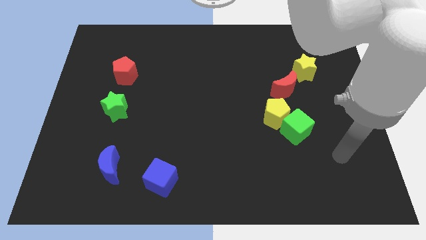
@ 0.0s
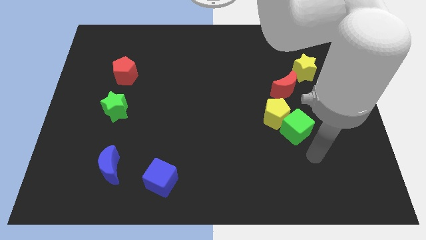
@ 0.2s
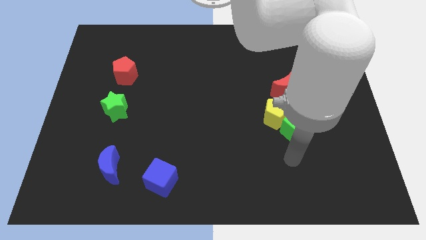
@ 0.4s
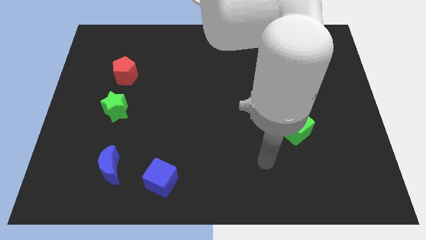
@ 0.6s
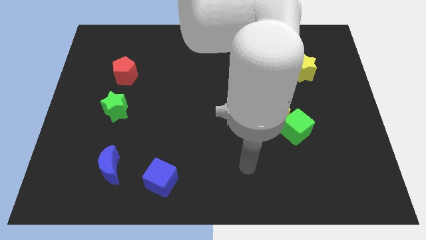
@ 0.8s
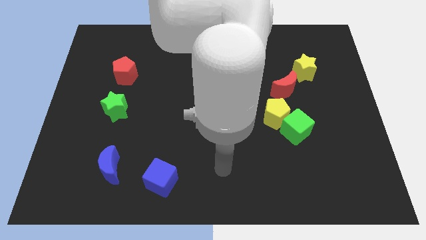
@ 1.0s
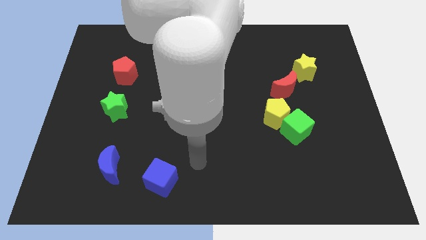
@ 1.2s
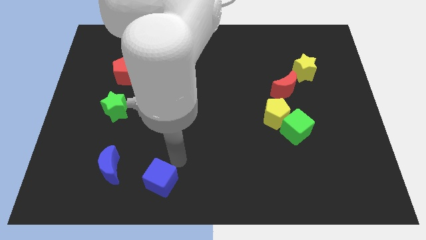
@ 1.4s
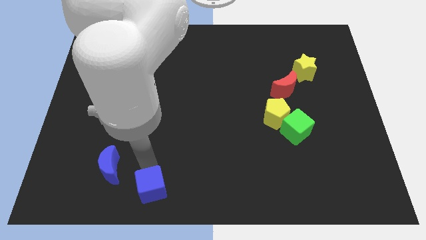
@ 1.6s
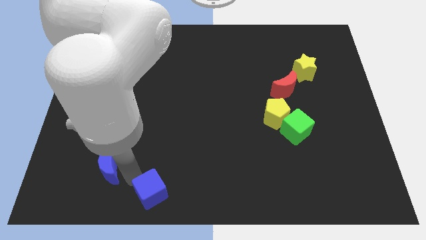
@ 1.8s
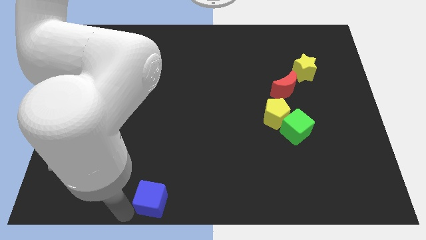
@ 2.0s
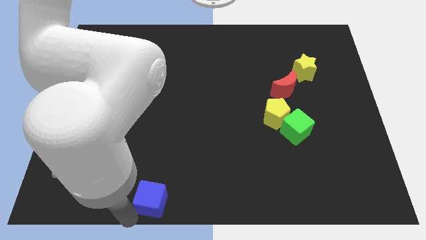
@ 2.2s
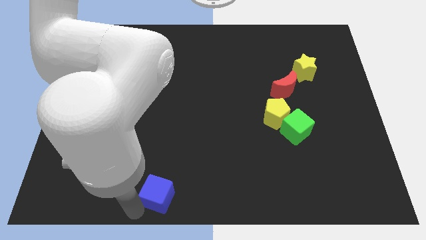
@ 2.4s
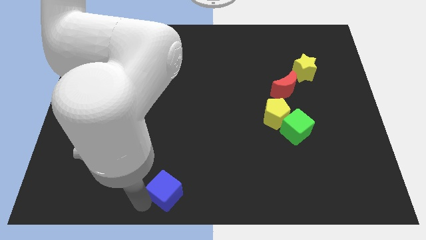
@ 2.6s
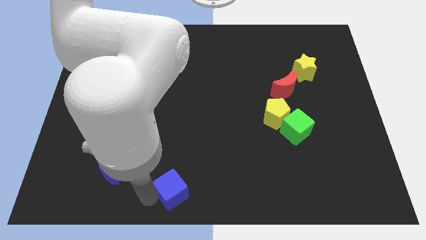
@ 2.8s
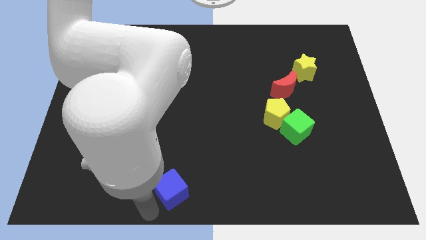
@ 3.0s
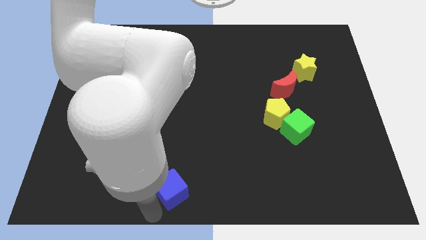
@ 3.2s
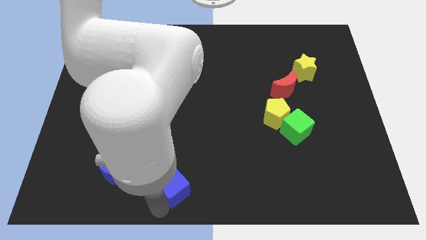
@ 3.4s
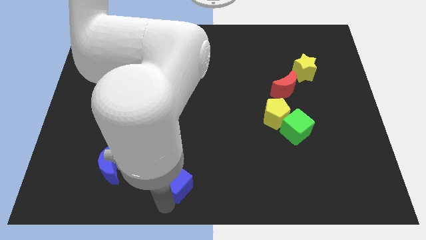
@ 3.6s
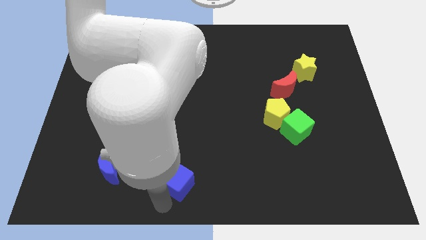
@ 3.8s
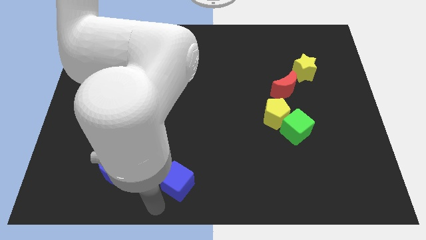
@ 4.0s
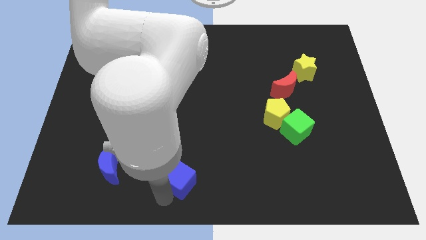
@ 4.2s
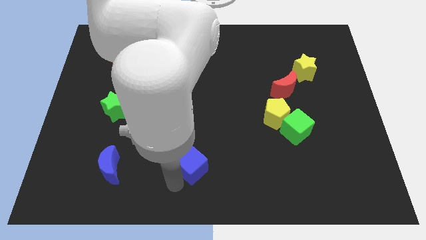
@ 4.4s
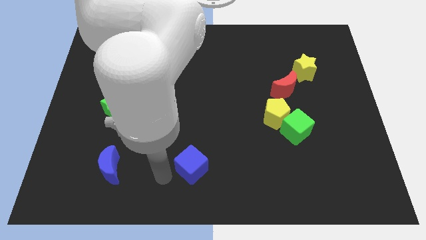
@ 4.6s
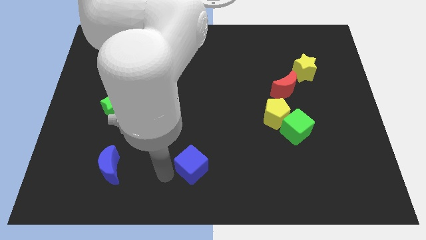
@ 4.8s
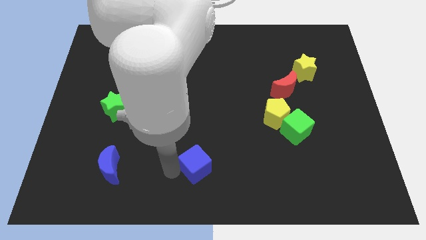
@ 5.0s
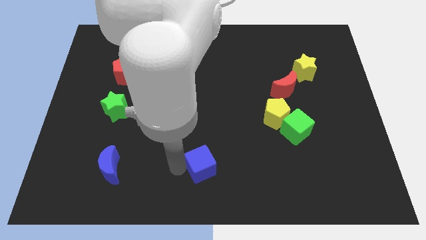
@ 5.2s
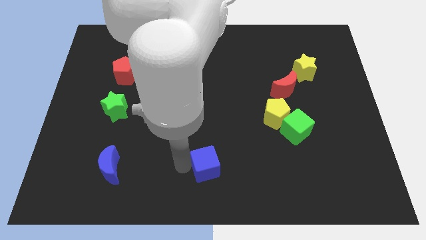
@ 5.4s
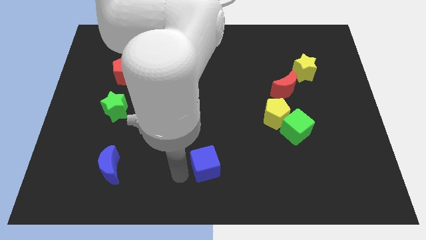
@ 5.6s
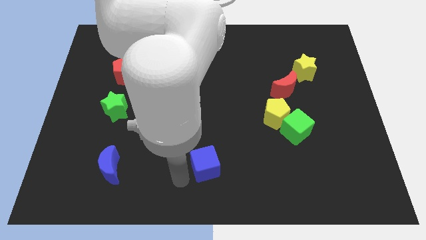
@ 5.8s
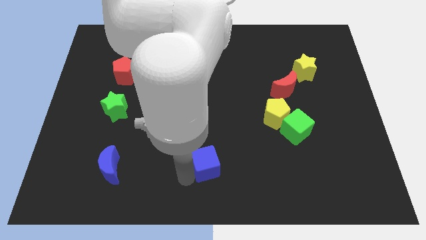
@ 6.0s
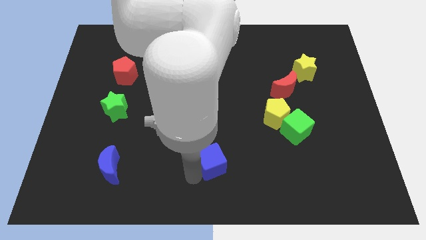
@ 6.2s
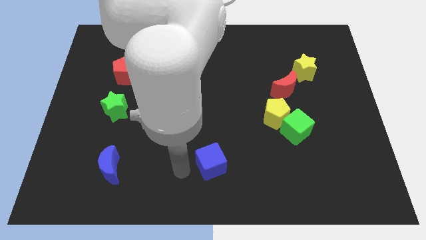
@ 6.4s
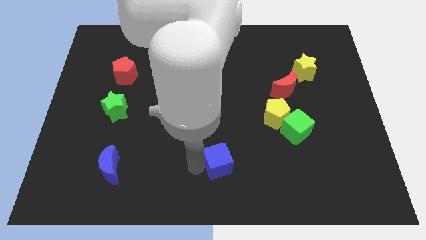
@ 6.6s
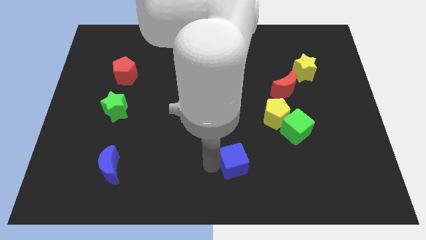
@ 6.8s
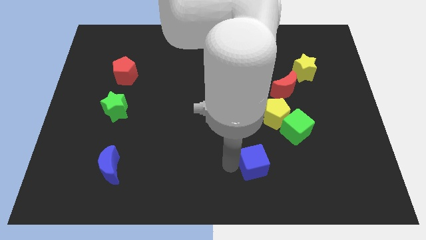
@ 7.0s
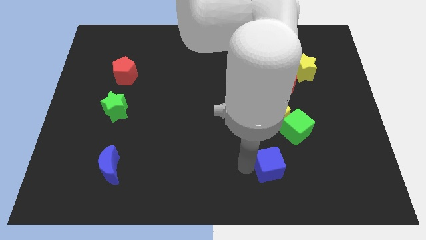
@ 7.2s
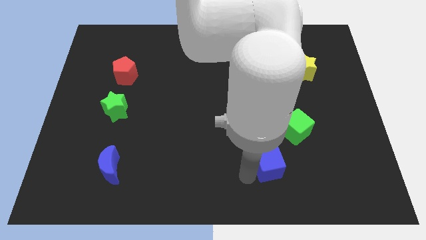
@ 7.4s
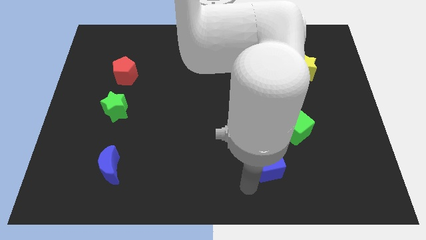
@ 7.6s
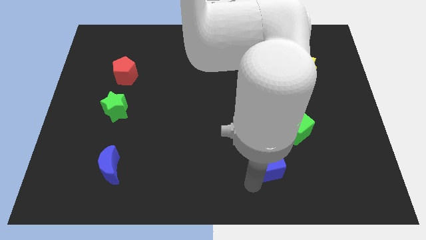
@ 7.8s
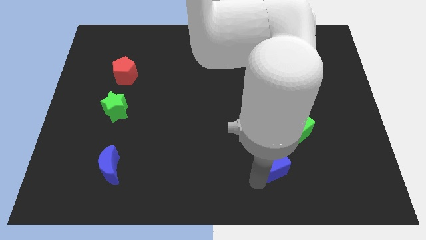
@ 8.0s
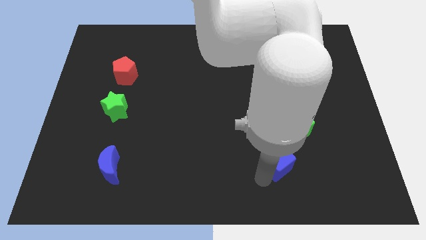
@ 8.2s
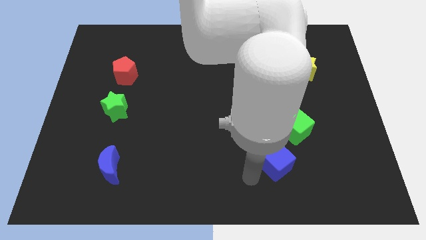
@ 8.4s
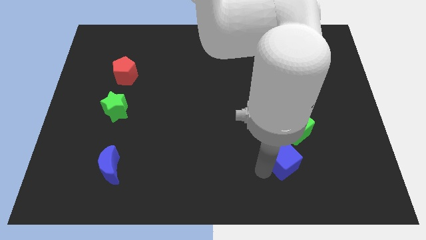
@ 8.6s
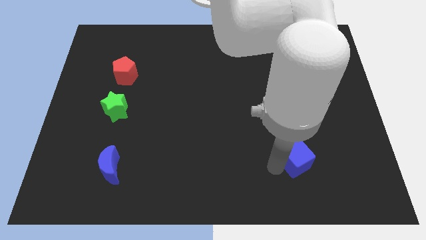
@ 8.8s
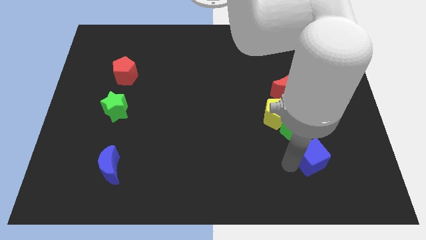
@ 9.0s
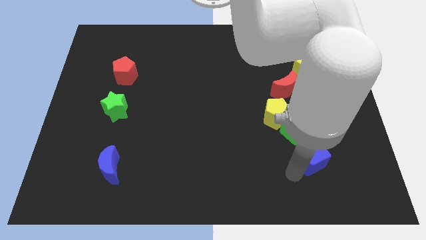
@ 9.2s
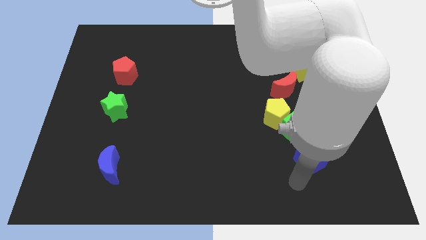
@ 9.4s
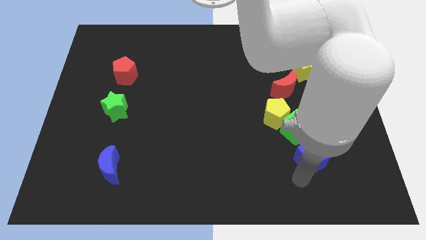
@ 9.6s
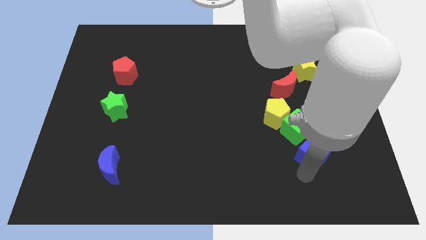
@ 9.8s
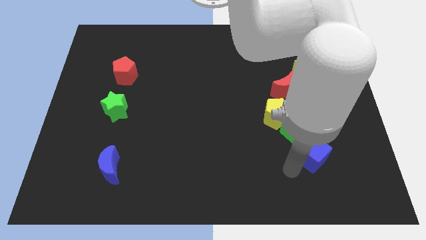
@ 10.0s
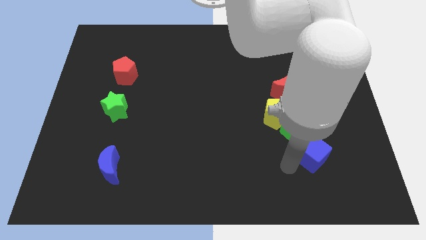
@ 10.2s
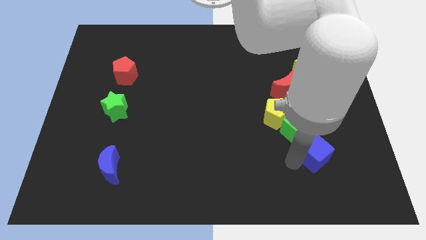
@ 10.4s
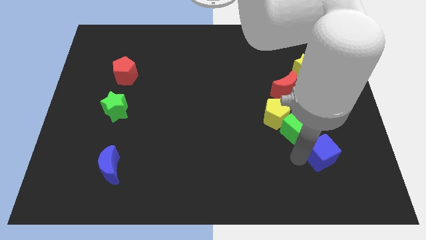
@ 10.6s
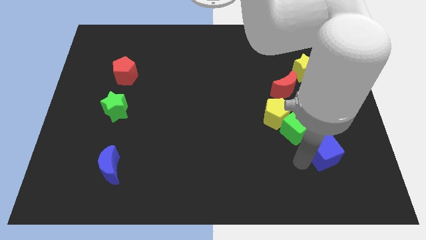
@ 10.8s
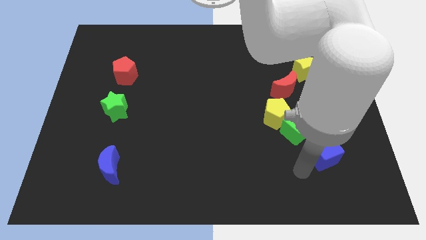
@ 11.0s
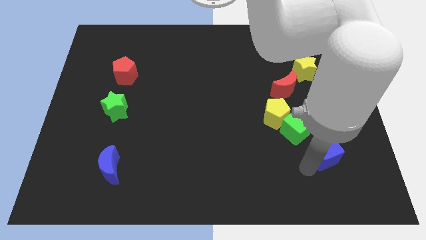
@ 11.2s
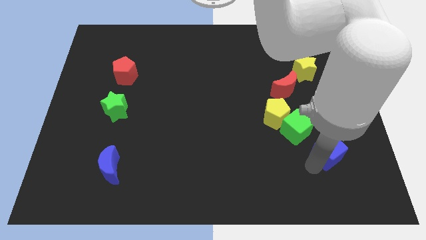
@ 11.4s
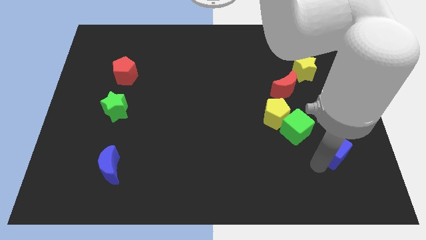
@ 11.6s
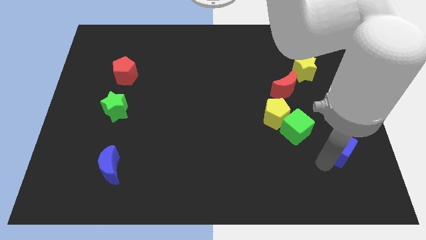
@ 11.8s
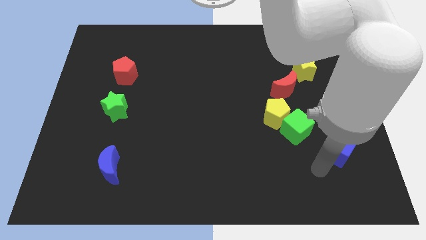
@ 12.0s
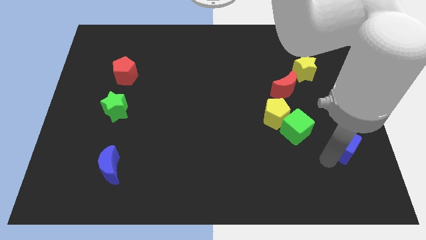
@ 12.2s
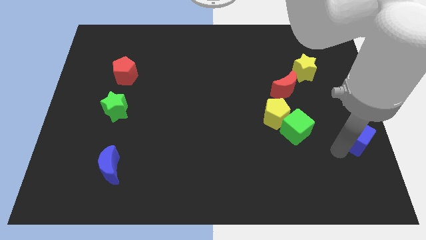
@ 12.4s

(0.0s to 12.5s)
move the blue cube to the center right
